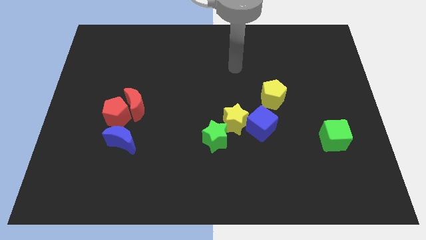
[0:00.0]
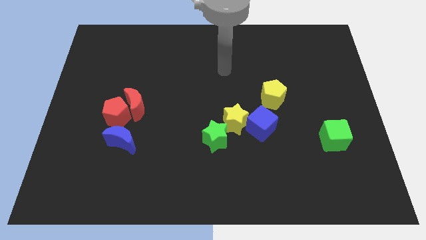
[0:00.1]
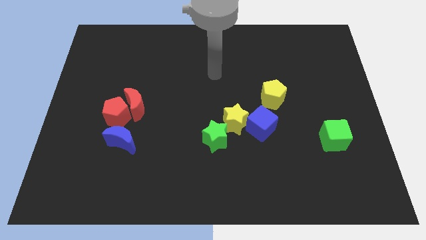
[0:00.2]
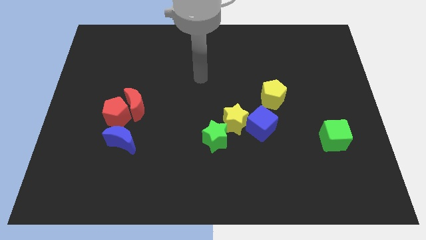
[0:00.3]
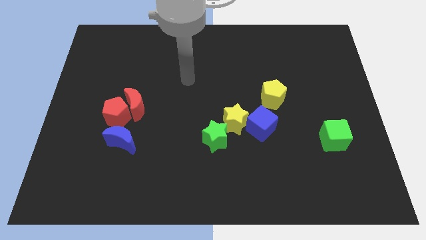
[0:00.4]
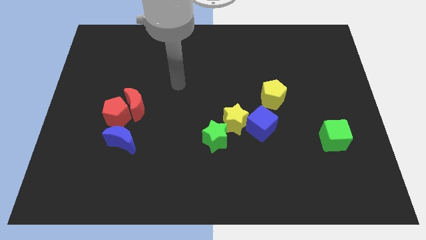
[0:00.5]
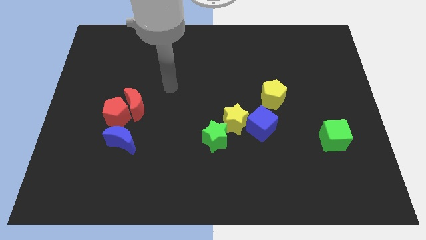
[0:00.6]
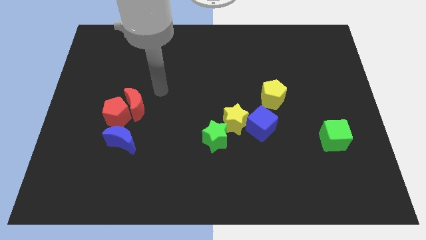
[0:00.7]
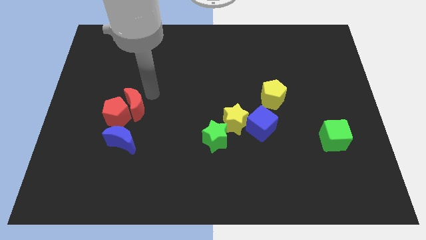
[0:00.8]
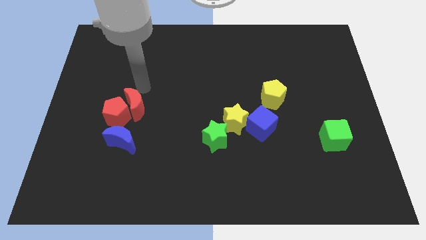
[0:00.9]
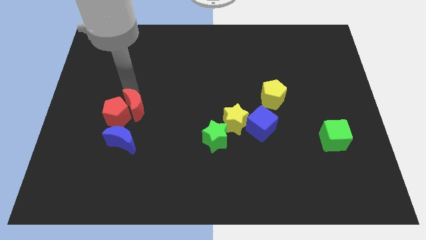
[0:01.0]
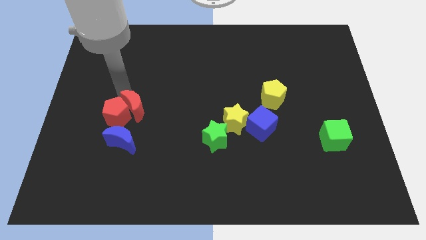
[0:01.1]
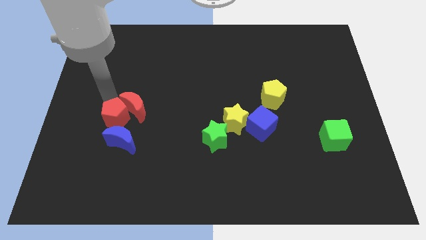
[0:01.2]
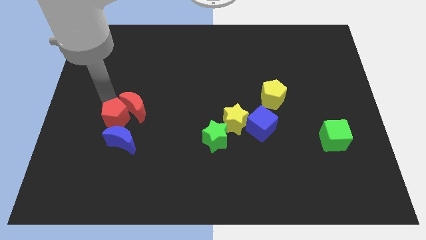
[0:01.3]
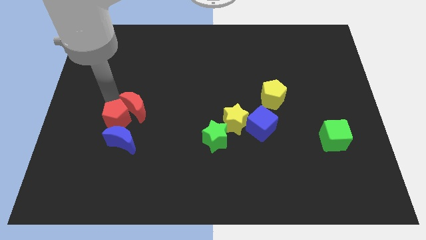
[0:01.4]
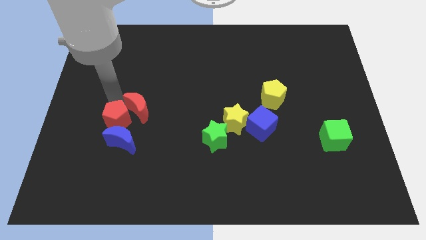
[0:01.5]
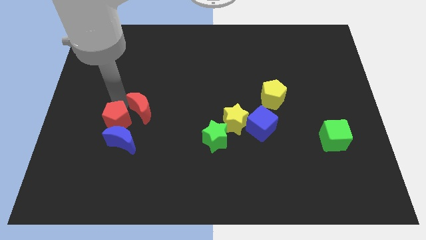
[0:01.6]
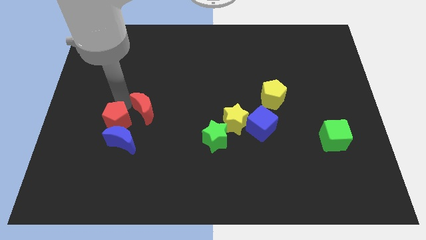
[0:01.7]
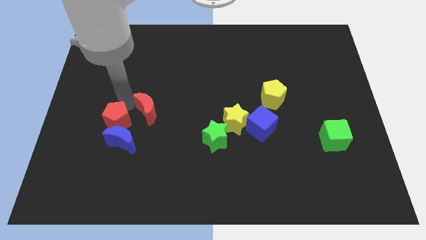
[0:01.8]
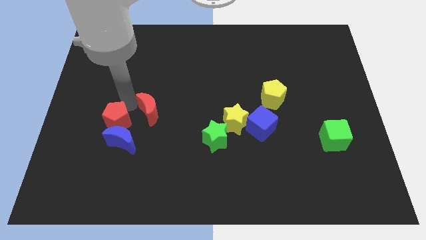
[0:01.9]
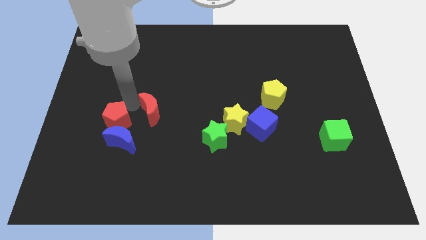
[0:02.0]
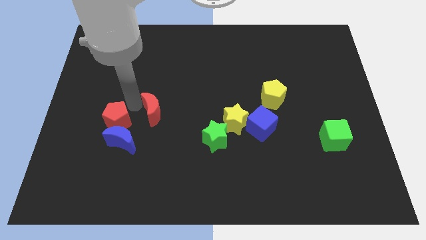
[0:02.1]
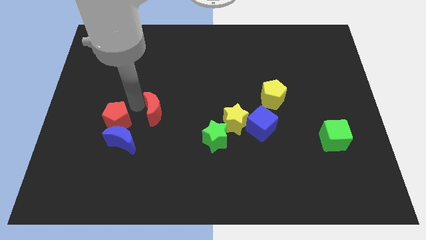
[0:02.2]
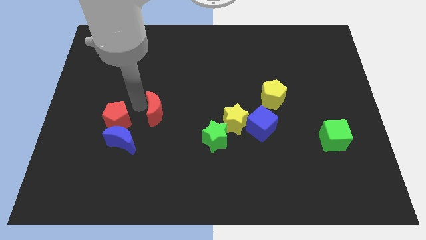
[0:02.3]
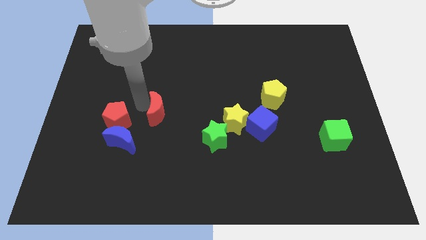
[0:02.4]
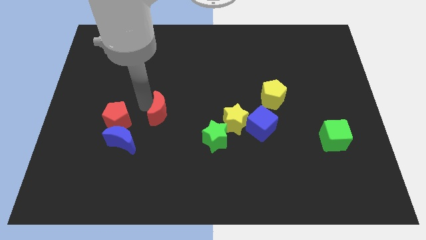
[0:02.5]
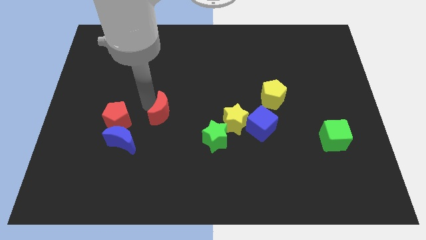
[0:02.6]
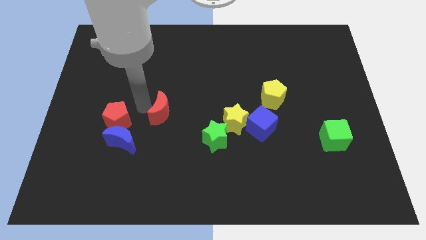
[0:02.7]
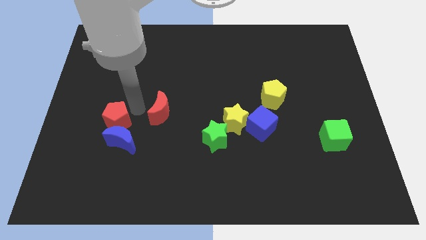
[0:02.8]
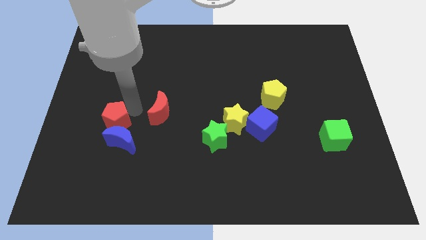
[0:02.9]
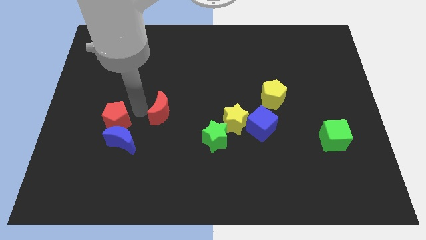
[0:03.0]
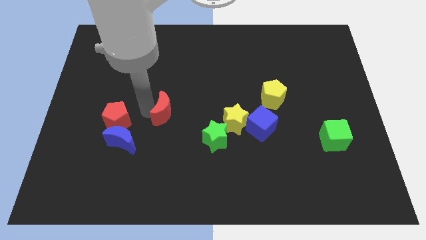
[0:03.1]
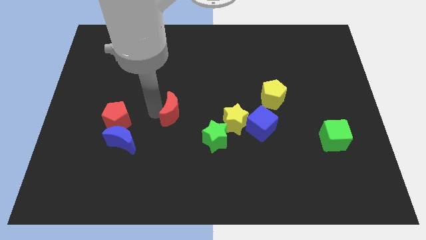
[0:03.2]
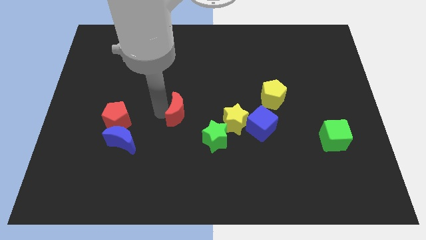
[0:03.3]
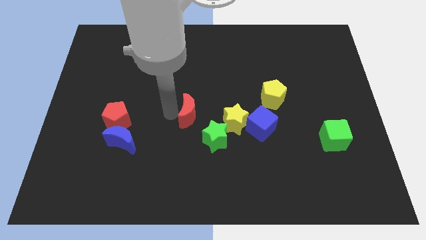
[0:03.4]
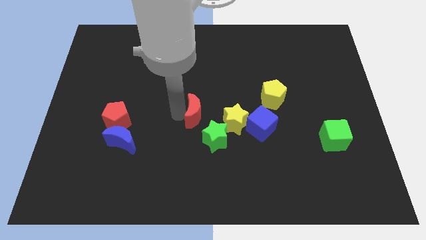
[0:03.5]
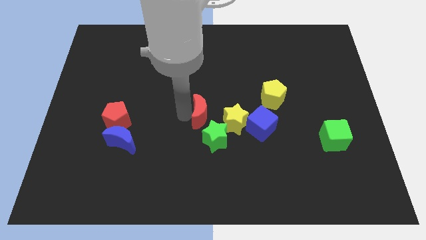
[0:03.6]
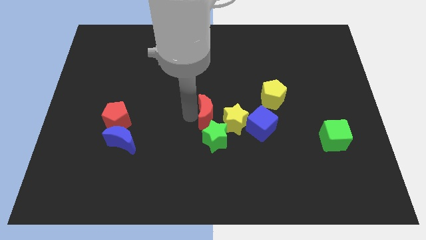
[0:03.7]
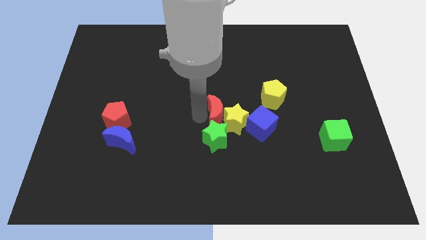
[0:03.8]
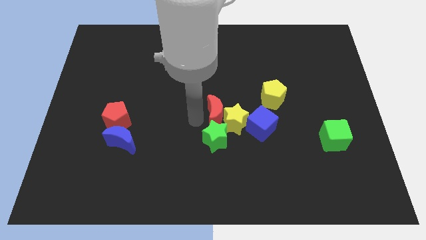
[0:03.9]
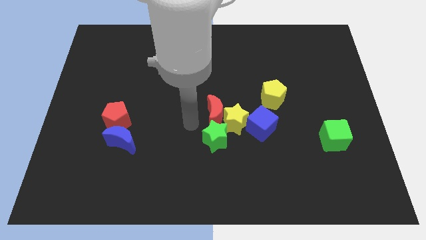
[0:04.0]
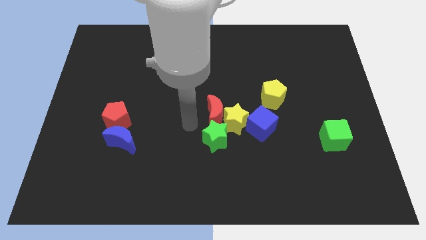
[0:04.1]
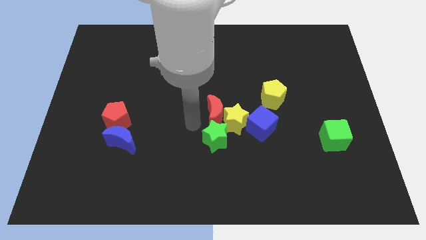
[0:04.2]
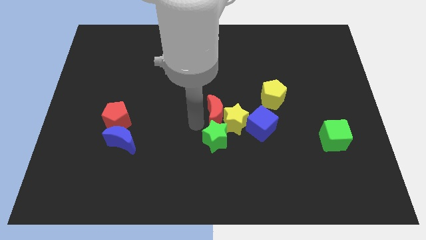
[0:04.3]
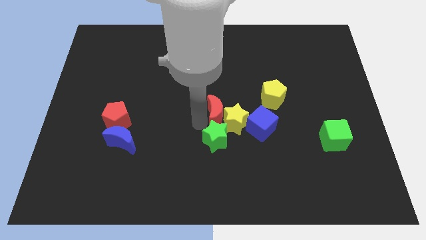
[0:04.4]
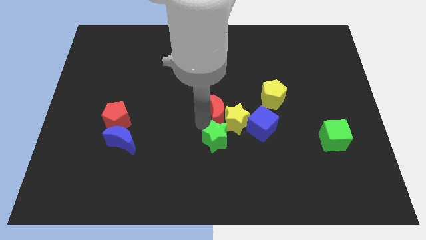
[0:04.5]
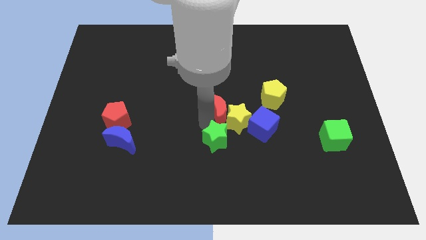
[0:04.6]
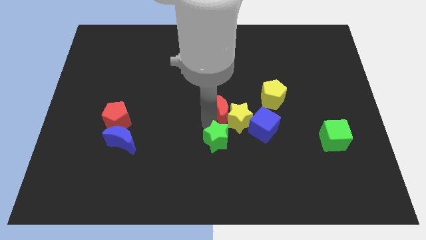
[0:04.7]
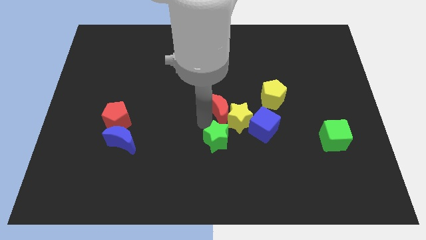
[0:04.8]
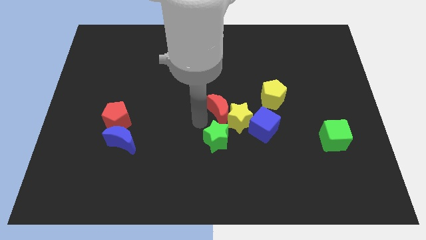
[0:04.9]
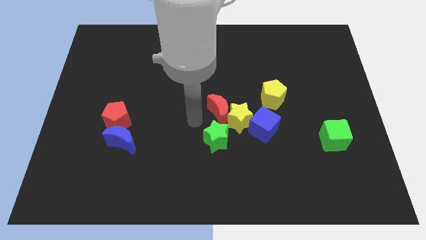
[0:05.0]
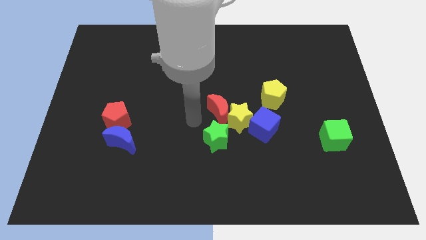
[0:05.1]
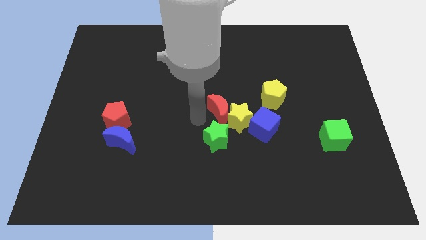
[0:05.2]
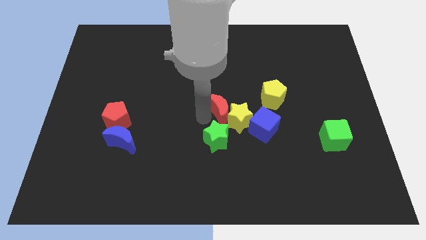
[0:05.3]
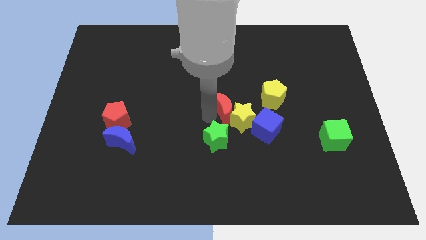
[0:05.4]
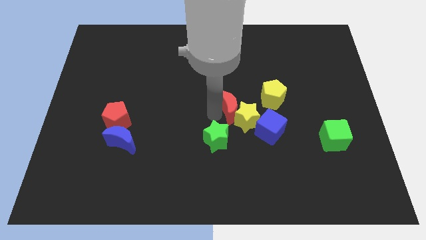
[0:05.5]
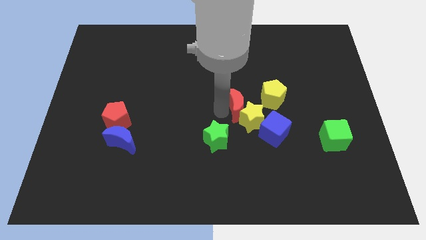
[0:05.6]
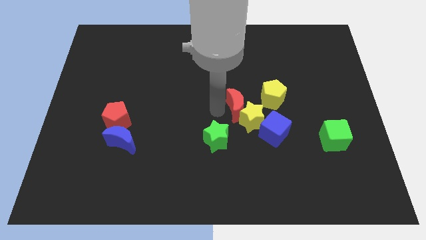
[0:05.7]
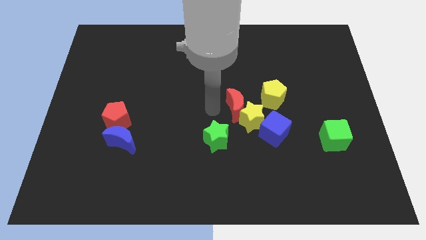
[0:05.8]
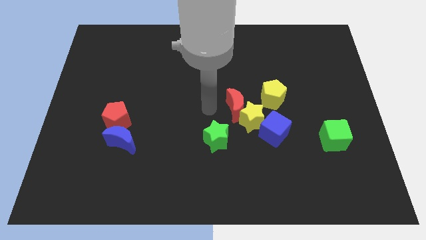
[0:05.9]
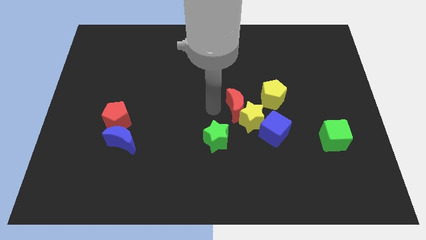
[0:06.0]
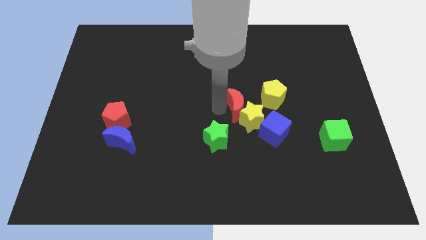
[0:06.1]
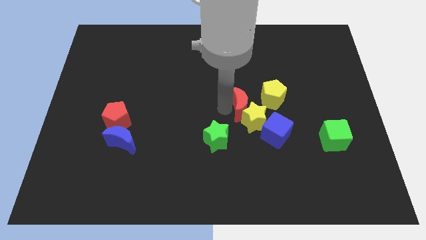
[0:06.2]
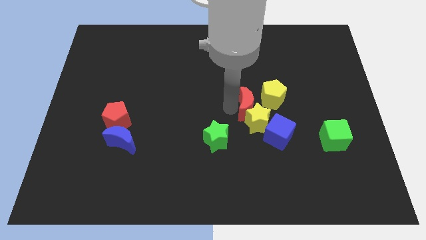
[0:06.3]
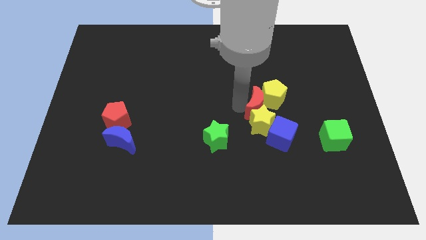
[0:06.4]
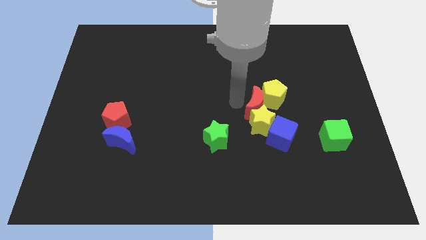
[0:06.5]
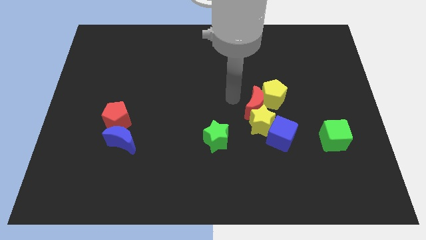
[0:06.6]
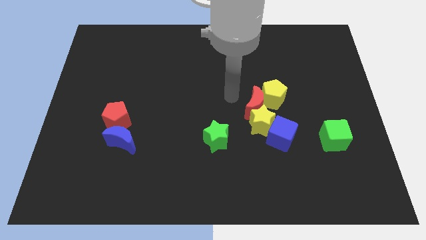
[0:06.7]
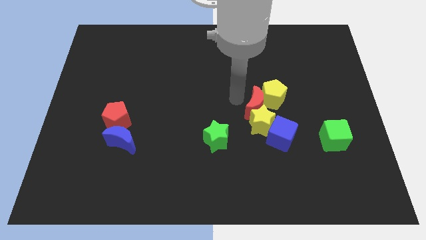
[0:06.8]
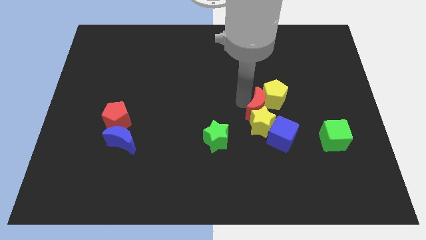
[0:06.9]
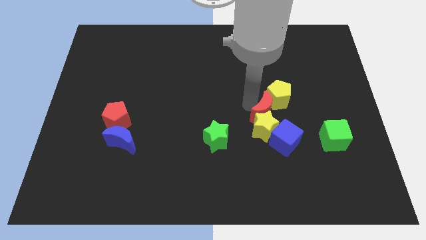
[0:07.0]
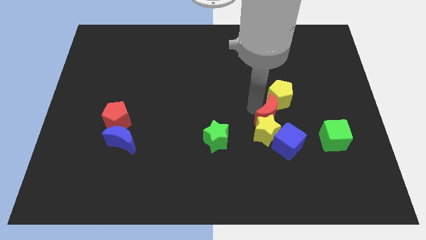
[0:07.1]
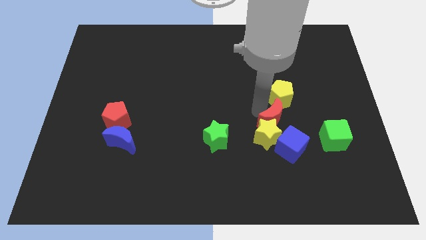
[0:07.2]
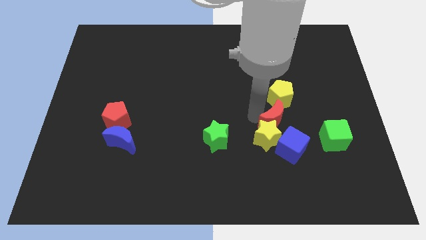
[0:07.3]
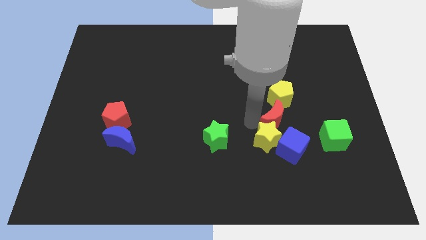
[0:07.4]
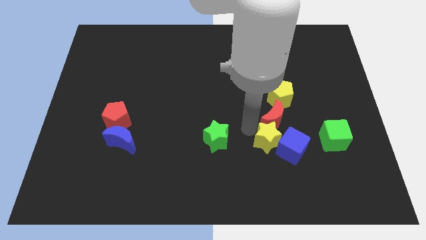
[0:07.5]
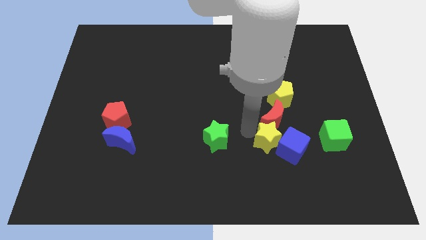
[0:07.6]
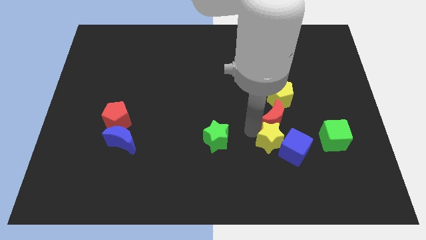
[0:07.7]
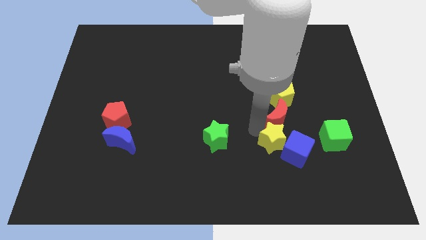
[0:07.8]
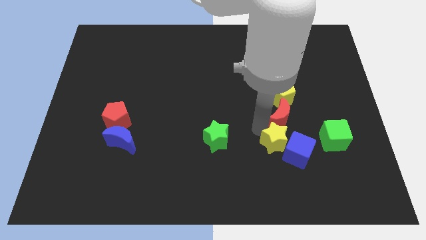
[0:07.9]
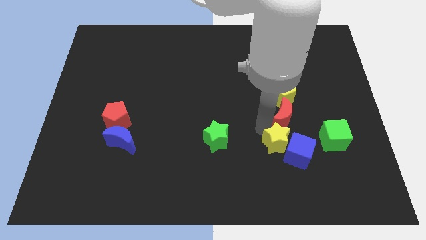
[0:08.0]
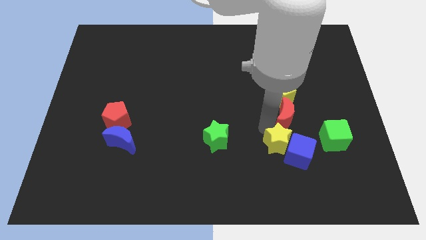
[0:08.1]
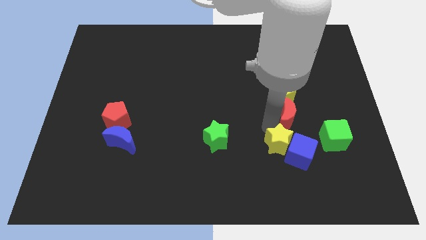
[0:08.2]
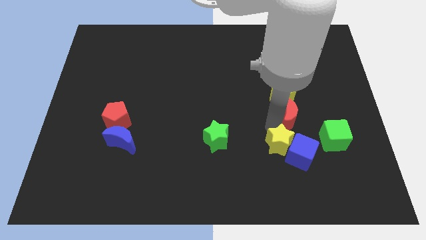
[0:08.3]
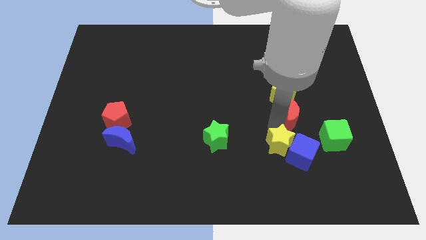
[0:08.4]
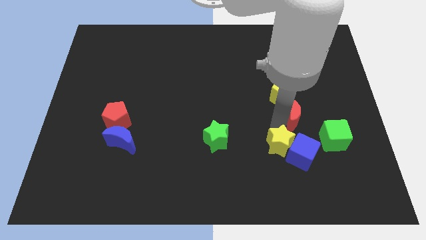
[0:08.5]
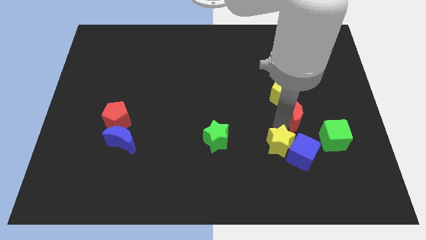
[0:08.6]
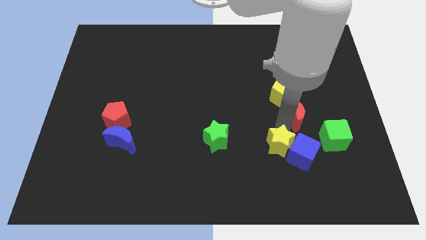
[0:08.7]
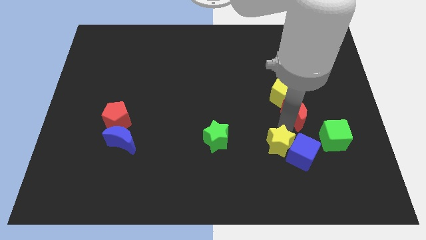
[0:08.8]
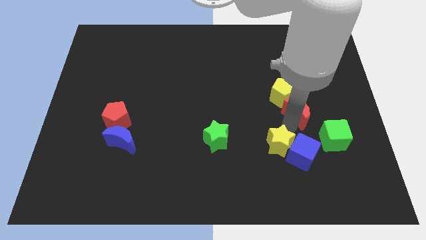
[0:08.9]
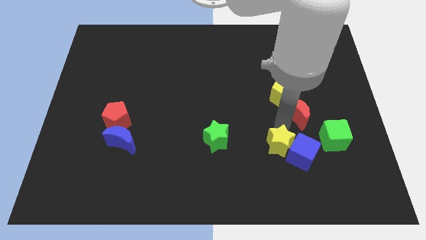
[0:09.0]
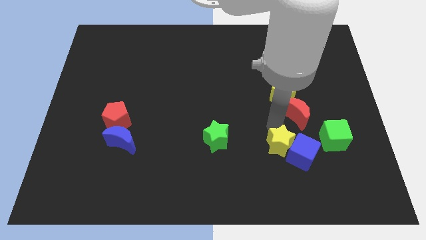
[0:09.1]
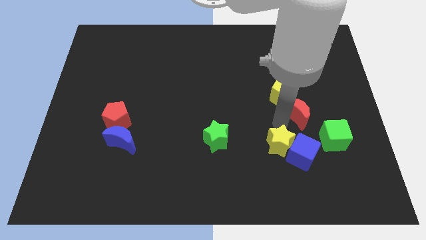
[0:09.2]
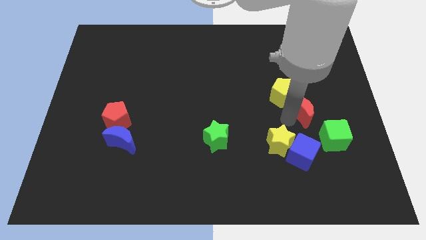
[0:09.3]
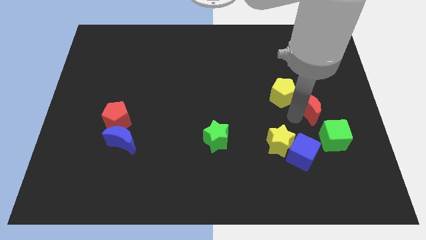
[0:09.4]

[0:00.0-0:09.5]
move the red moon to the top of the green cube
